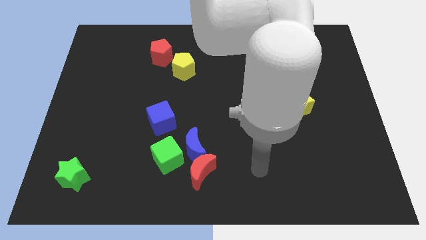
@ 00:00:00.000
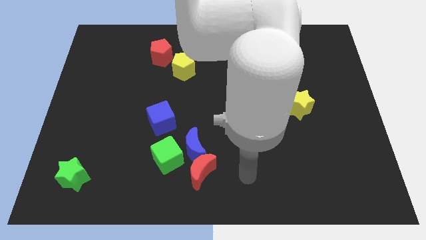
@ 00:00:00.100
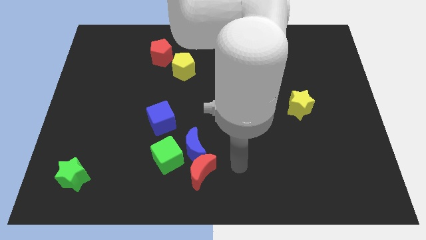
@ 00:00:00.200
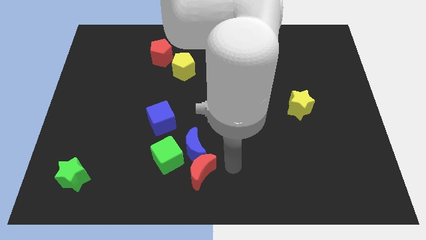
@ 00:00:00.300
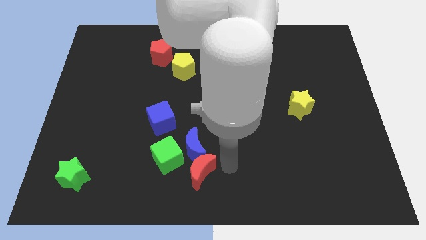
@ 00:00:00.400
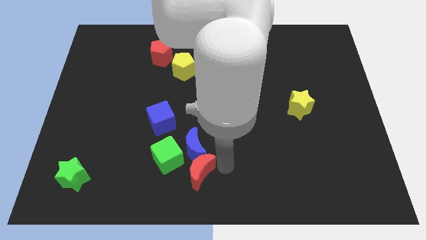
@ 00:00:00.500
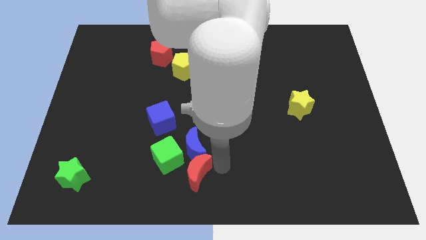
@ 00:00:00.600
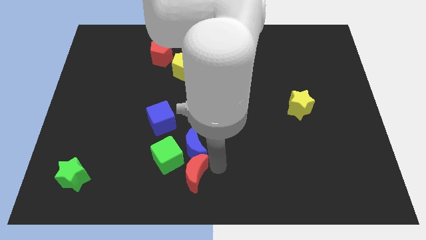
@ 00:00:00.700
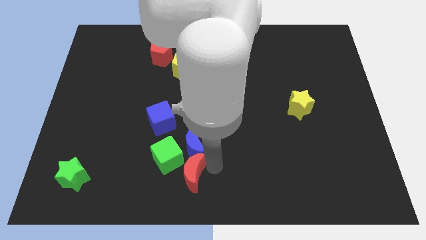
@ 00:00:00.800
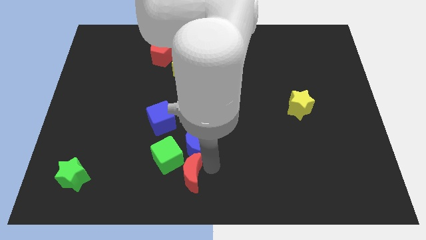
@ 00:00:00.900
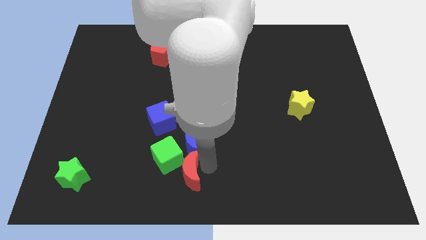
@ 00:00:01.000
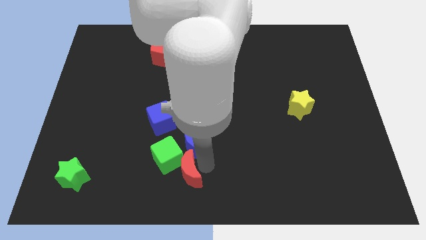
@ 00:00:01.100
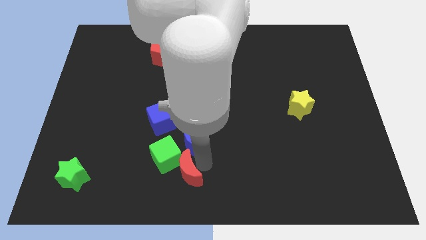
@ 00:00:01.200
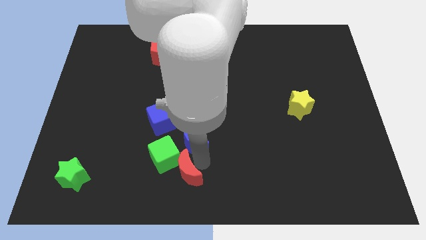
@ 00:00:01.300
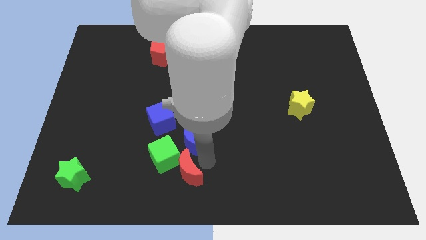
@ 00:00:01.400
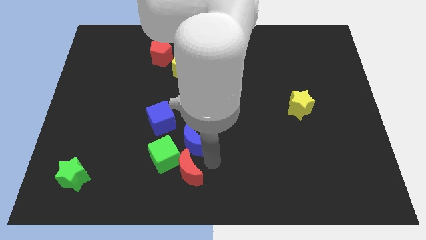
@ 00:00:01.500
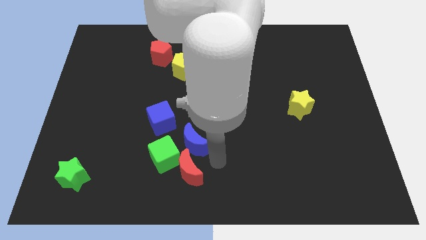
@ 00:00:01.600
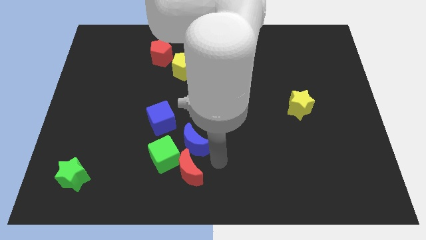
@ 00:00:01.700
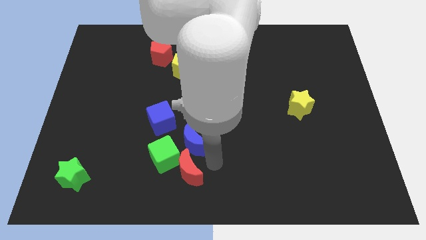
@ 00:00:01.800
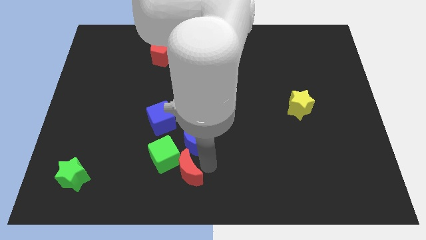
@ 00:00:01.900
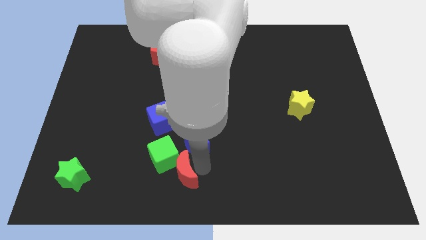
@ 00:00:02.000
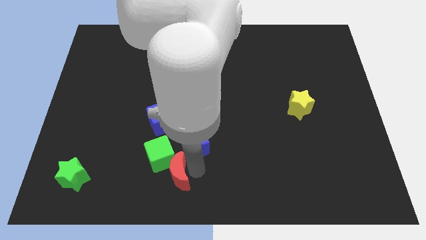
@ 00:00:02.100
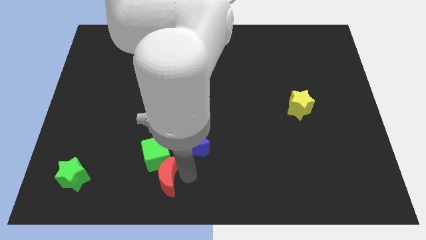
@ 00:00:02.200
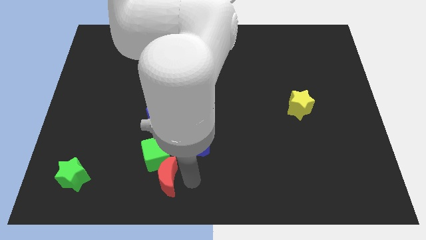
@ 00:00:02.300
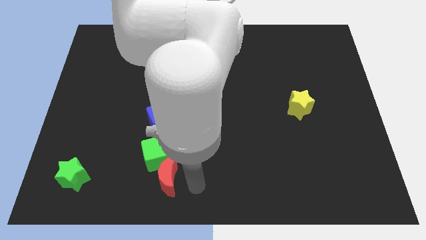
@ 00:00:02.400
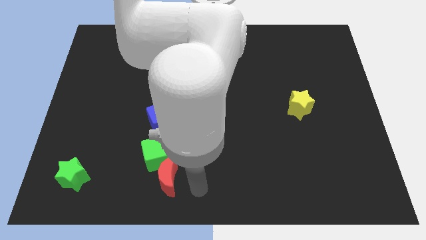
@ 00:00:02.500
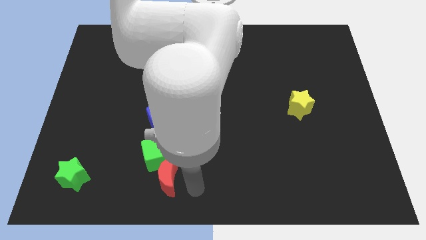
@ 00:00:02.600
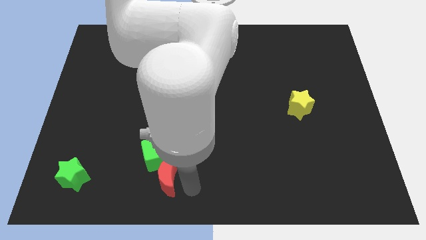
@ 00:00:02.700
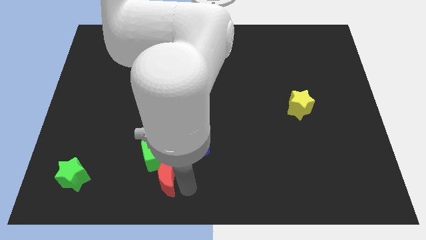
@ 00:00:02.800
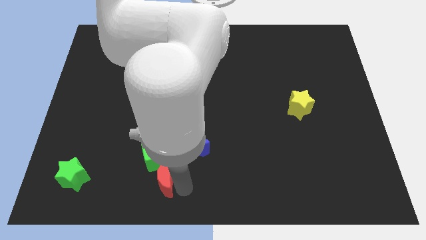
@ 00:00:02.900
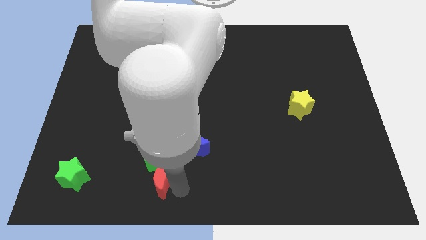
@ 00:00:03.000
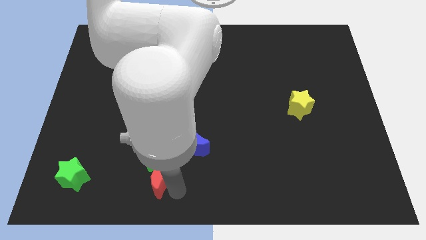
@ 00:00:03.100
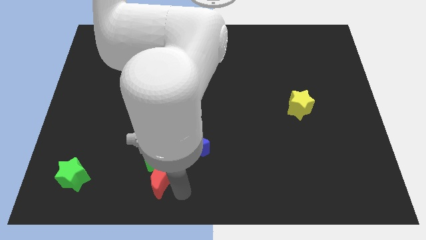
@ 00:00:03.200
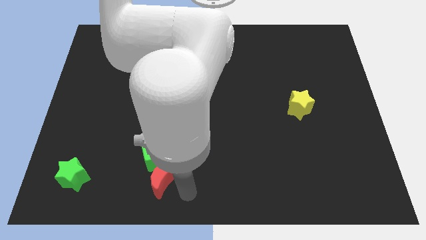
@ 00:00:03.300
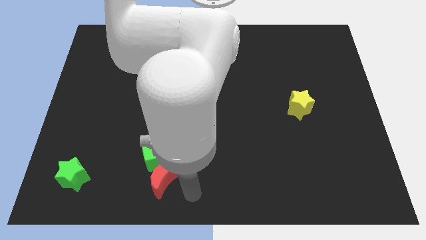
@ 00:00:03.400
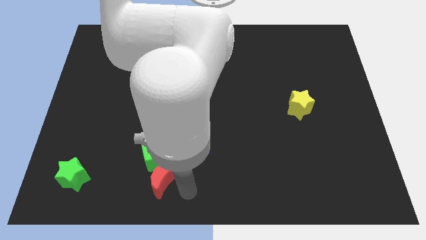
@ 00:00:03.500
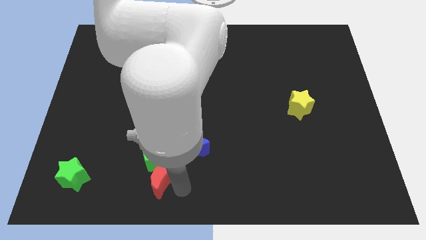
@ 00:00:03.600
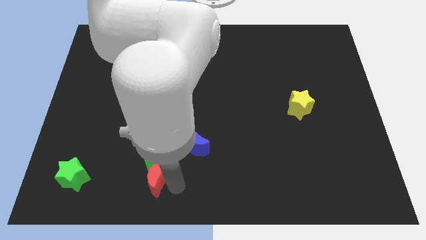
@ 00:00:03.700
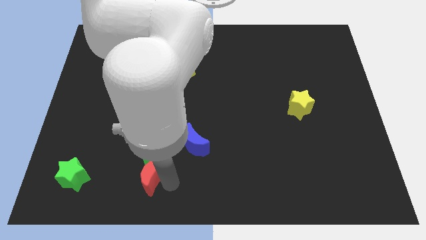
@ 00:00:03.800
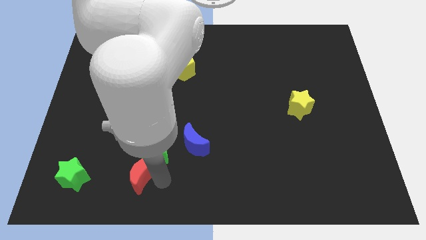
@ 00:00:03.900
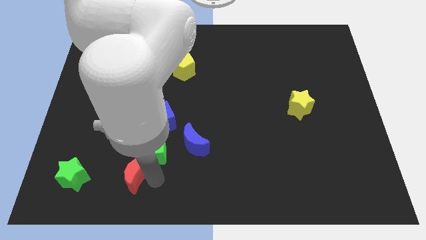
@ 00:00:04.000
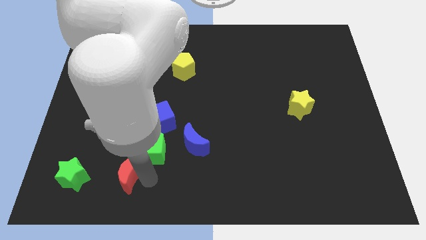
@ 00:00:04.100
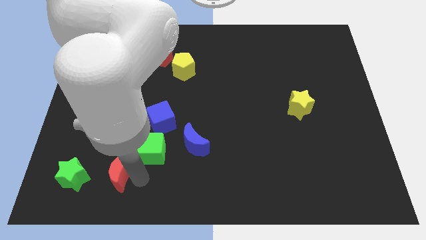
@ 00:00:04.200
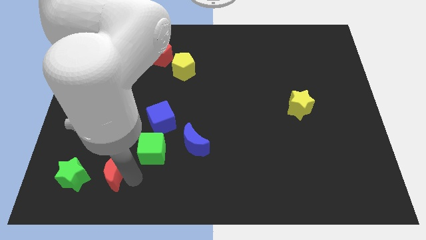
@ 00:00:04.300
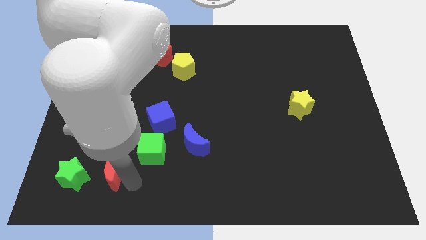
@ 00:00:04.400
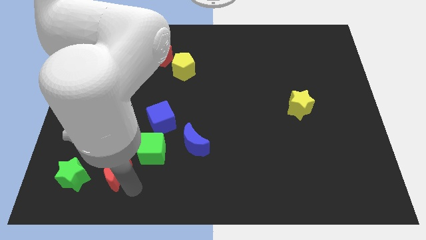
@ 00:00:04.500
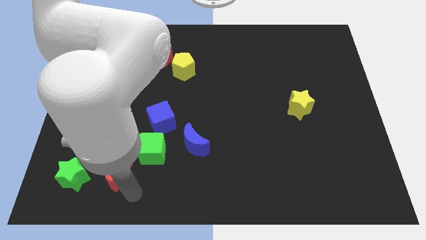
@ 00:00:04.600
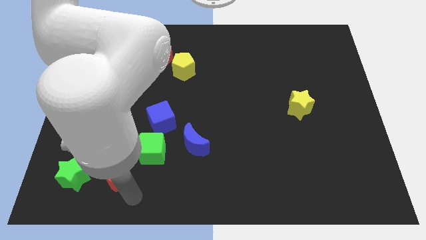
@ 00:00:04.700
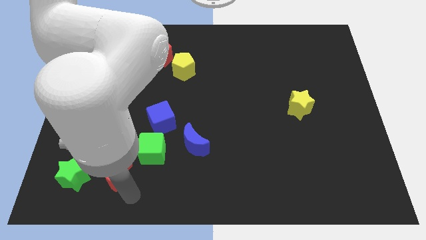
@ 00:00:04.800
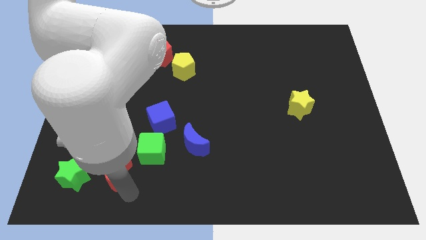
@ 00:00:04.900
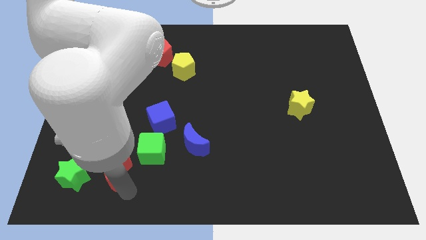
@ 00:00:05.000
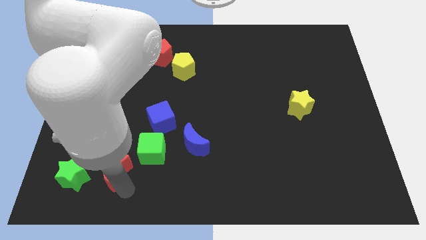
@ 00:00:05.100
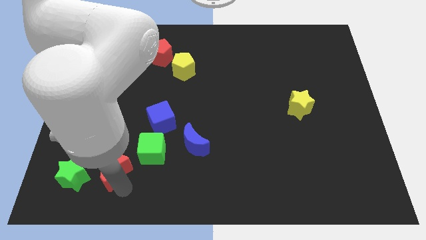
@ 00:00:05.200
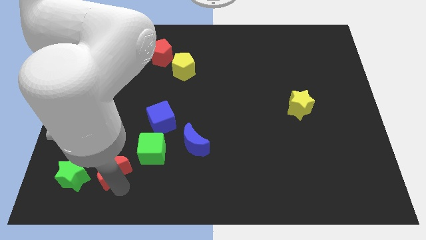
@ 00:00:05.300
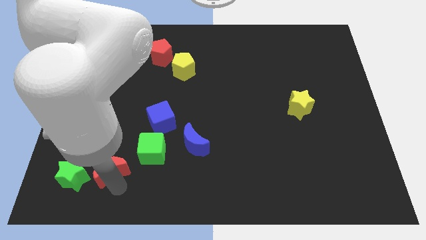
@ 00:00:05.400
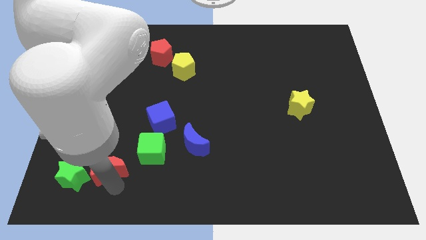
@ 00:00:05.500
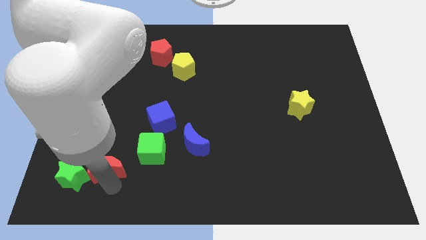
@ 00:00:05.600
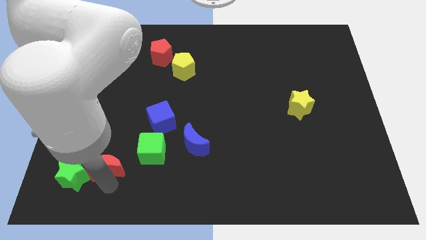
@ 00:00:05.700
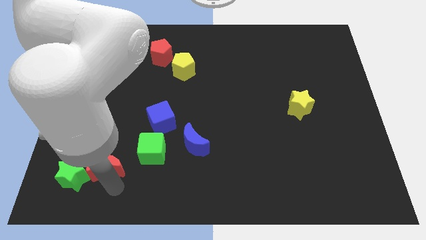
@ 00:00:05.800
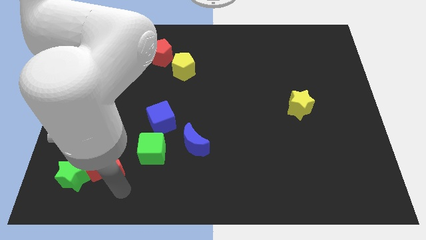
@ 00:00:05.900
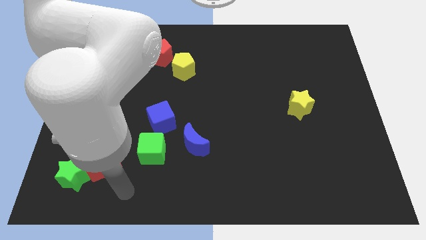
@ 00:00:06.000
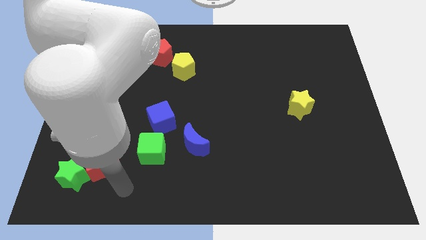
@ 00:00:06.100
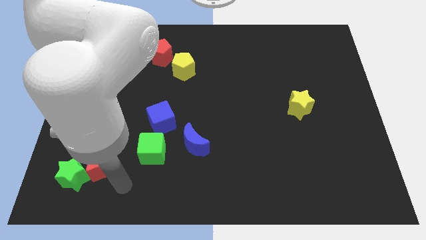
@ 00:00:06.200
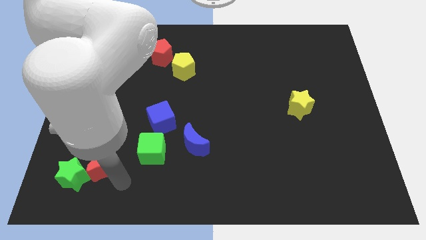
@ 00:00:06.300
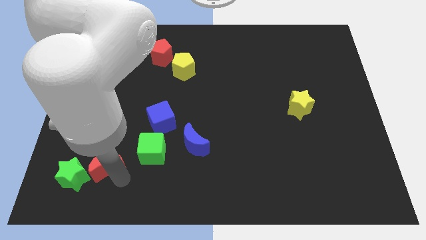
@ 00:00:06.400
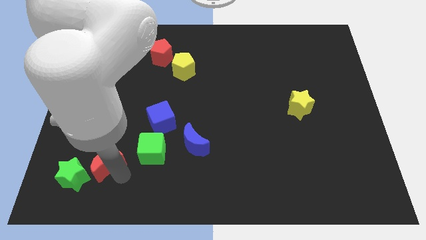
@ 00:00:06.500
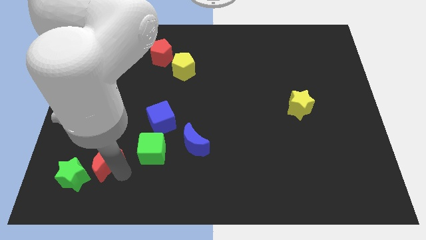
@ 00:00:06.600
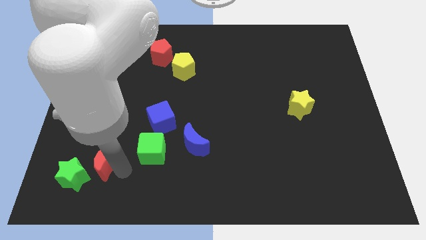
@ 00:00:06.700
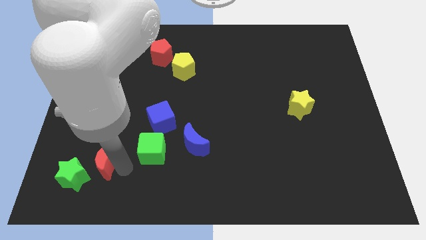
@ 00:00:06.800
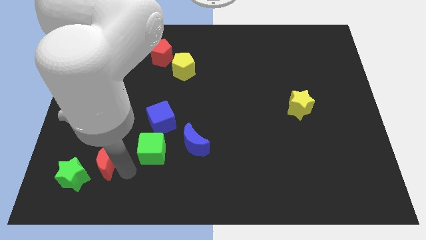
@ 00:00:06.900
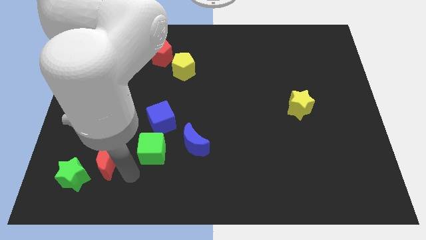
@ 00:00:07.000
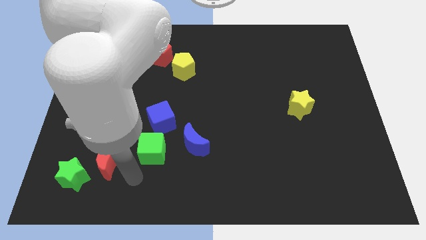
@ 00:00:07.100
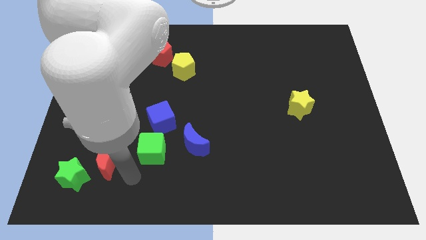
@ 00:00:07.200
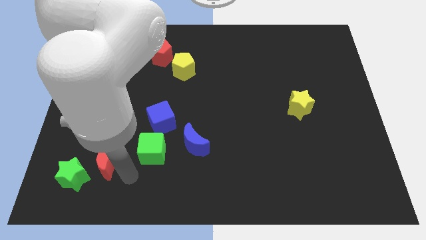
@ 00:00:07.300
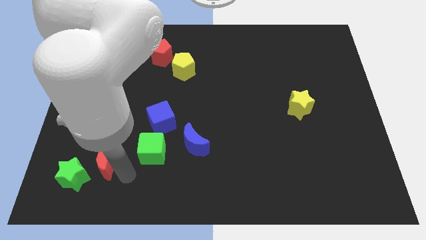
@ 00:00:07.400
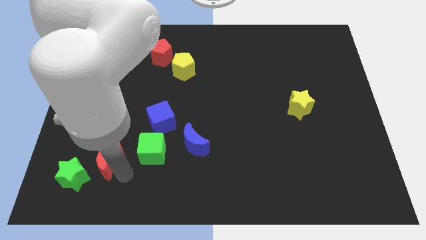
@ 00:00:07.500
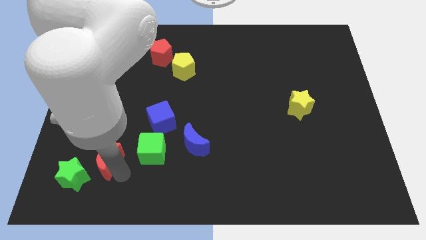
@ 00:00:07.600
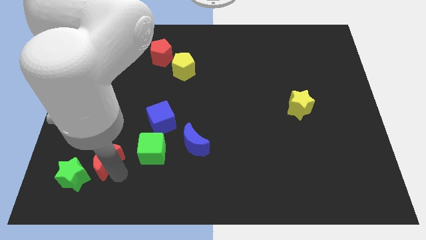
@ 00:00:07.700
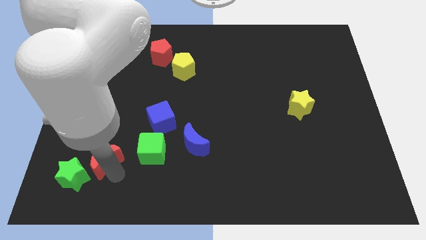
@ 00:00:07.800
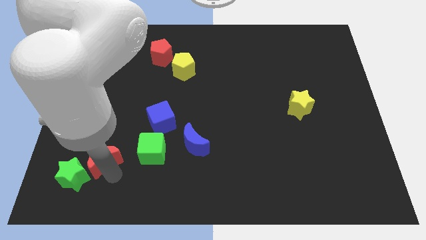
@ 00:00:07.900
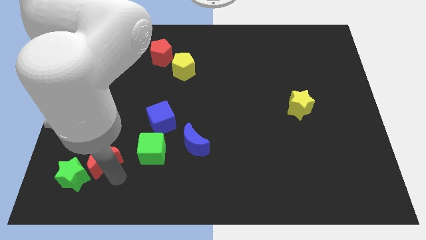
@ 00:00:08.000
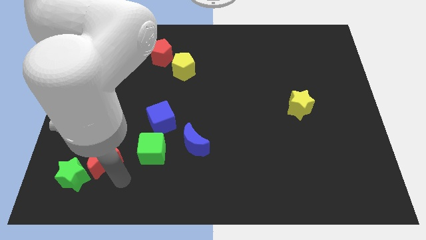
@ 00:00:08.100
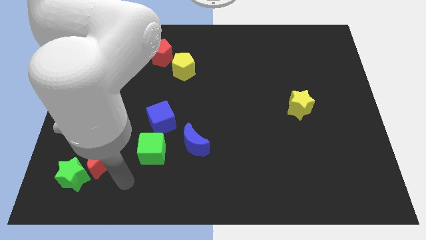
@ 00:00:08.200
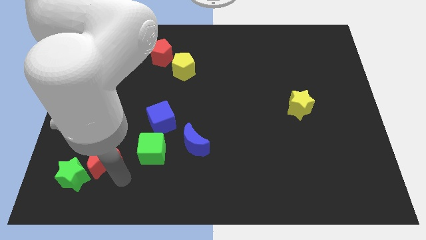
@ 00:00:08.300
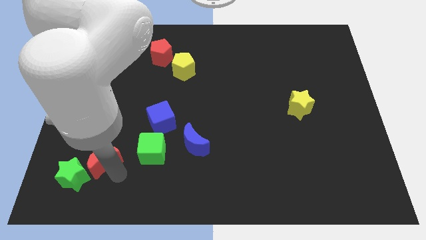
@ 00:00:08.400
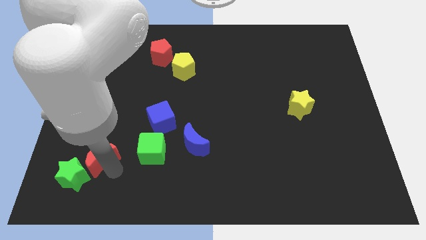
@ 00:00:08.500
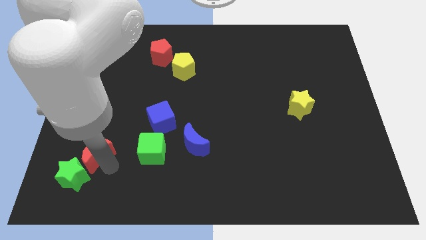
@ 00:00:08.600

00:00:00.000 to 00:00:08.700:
put the red moon above the green star
